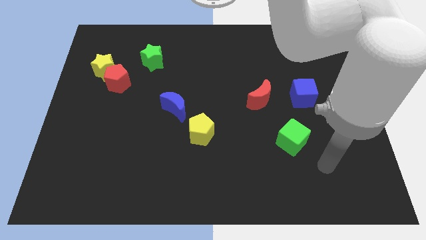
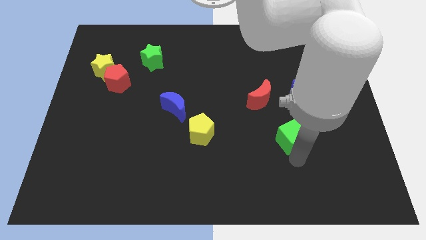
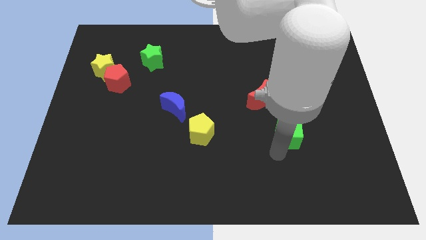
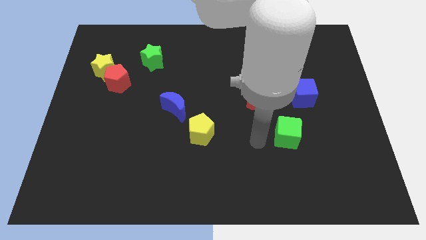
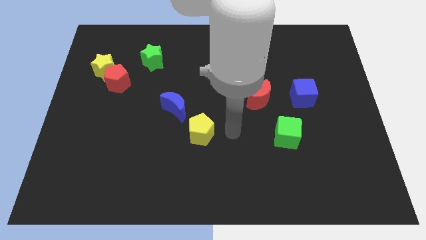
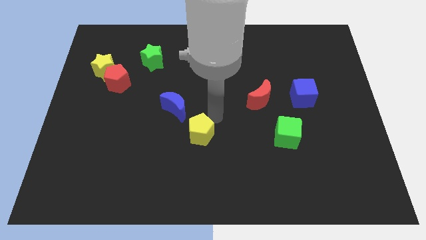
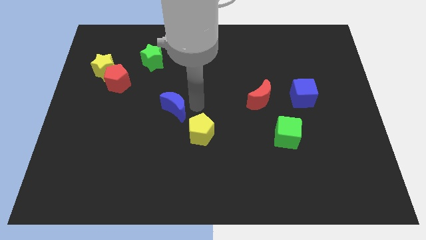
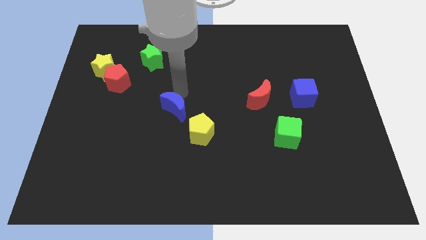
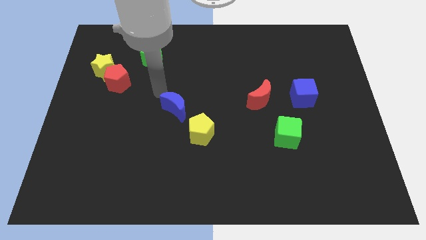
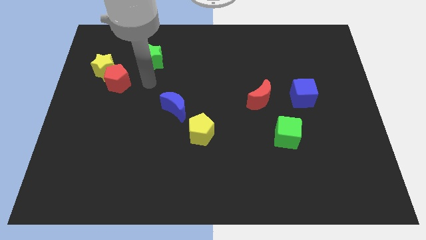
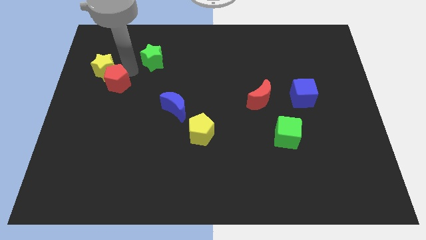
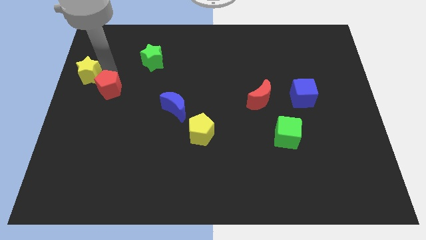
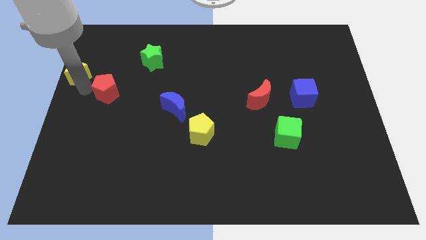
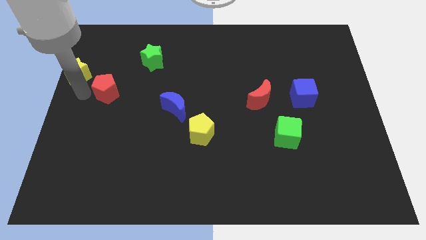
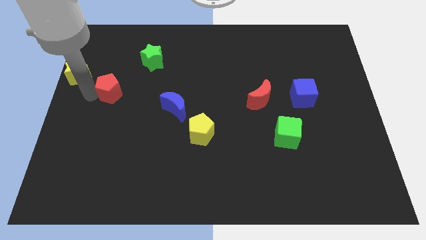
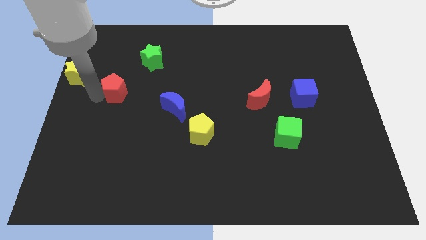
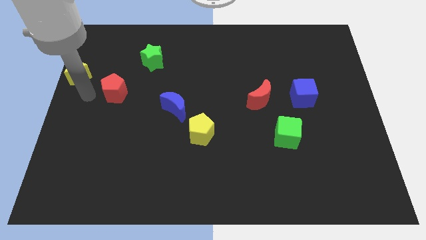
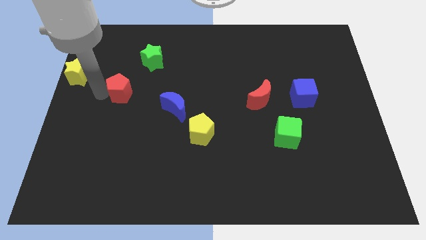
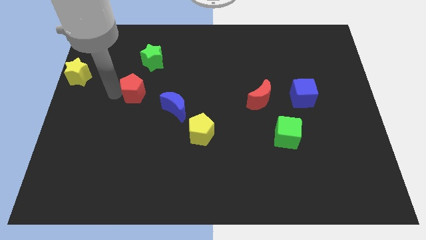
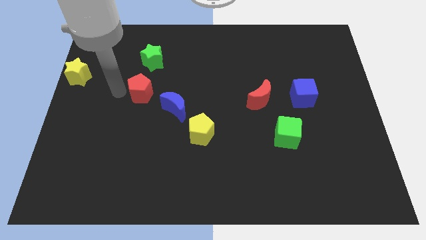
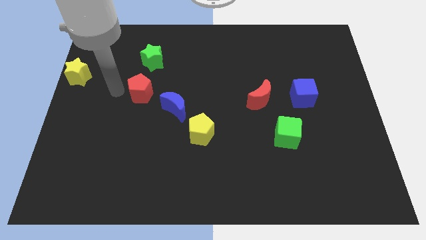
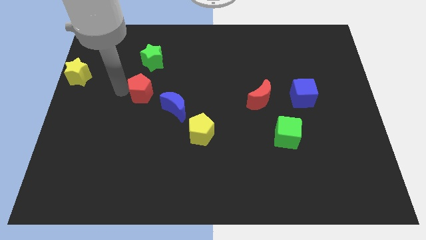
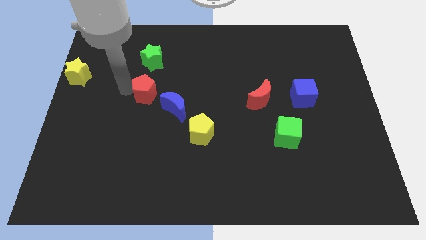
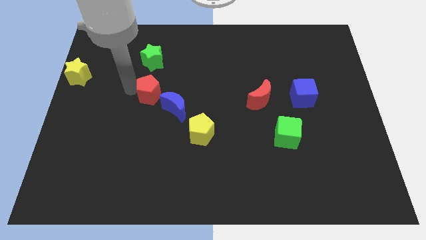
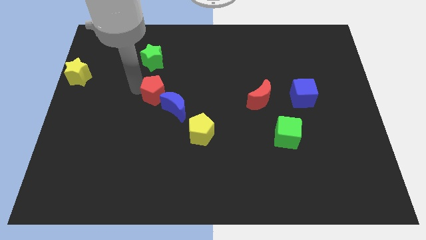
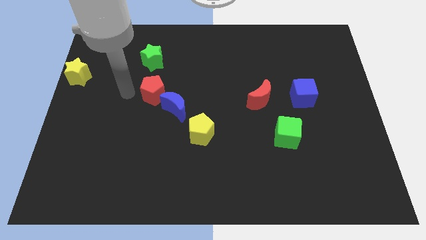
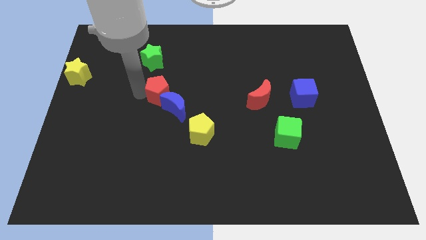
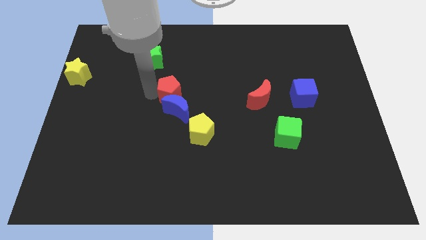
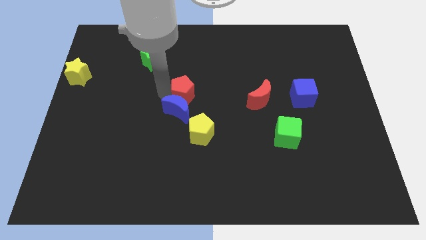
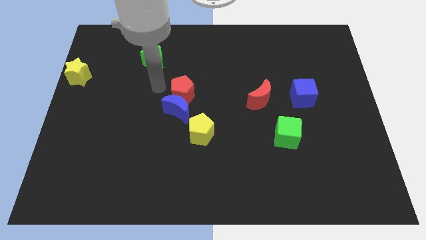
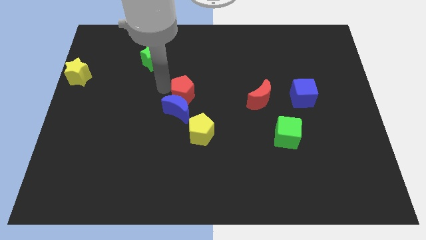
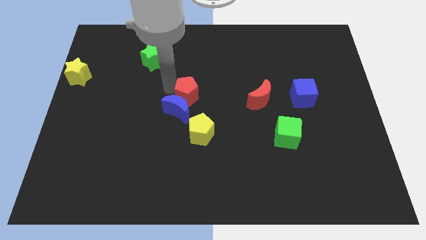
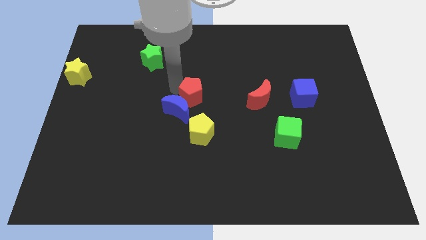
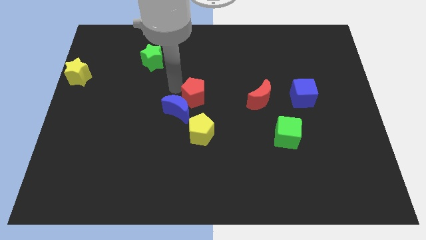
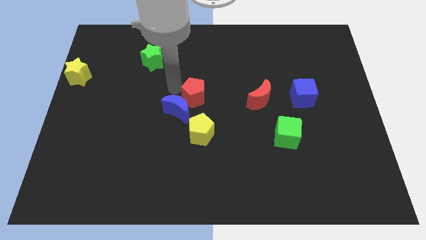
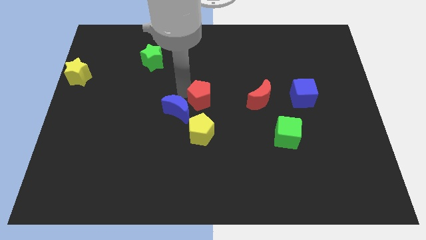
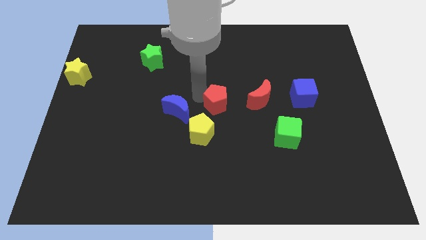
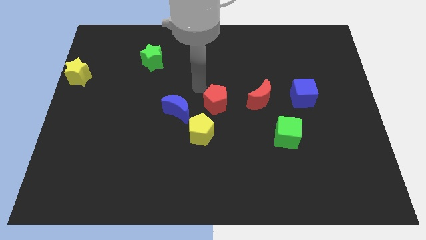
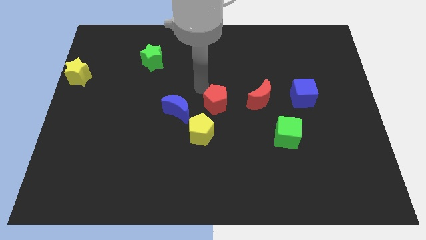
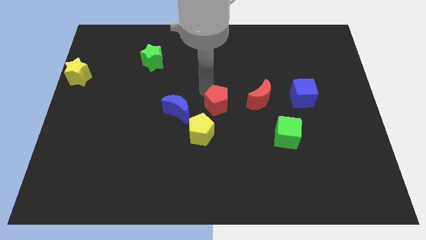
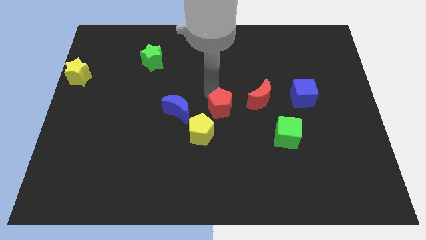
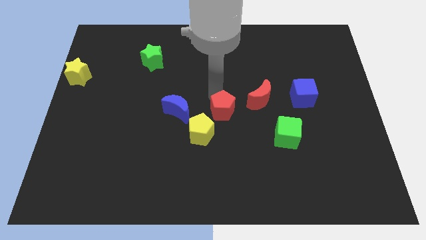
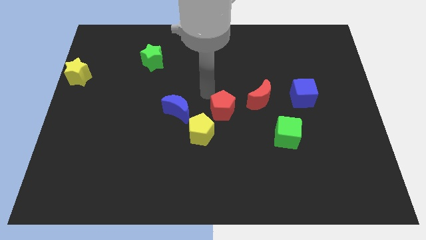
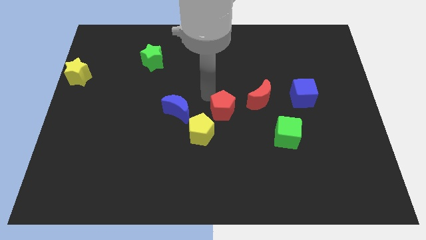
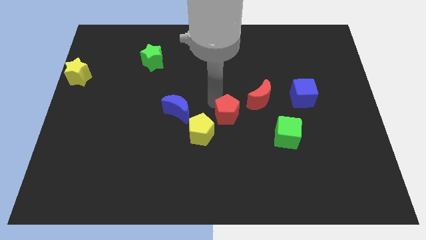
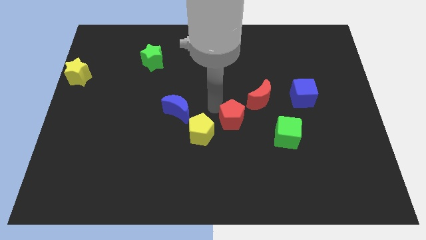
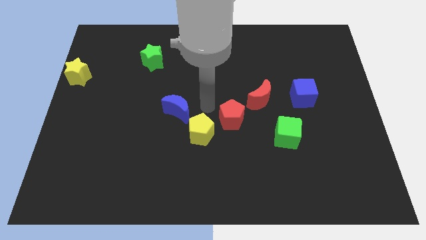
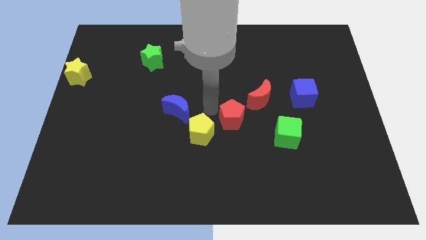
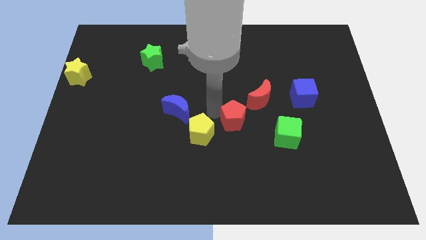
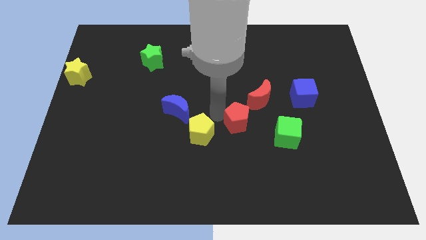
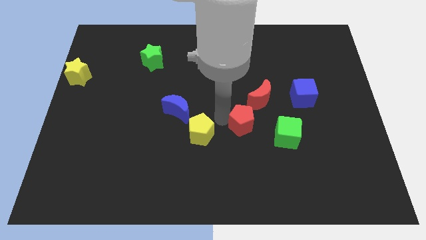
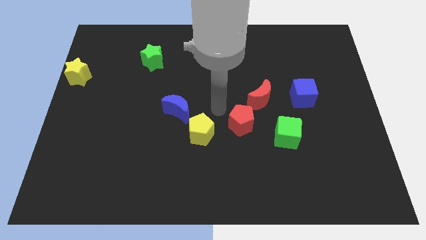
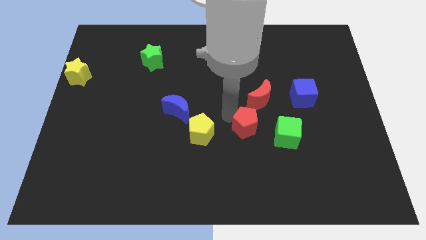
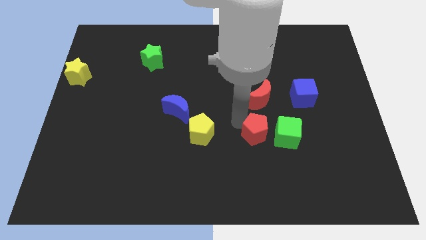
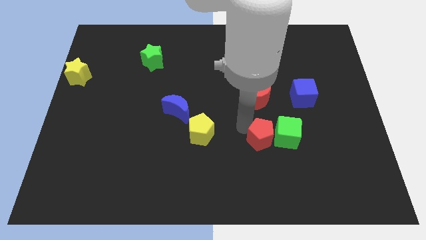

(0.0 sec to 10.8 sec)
move the red pentagon to the green cube

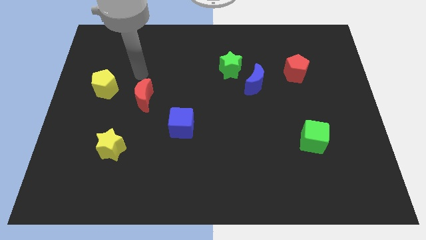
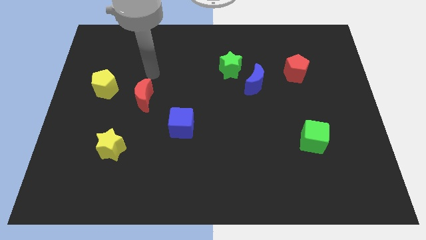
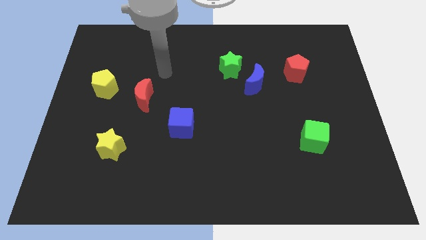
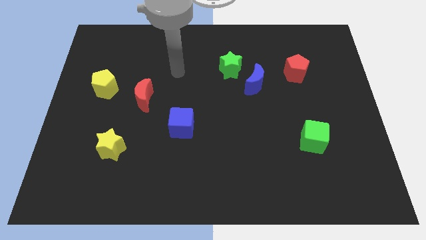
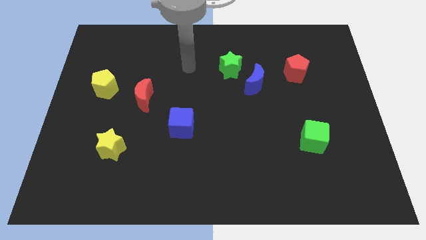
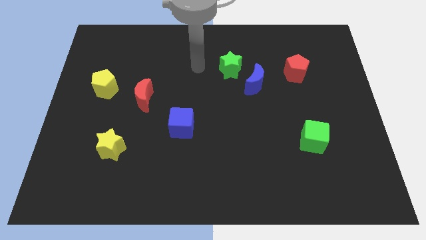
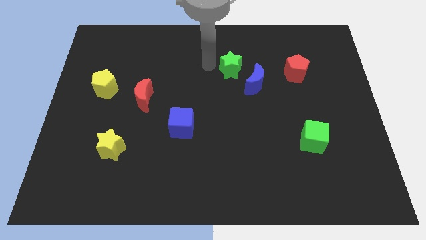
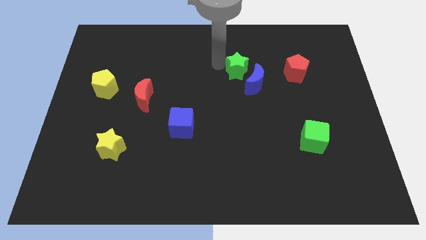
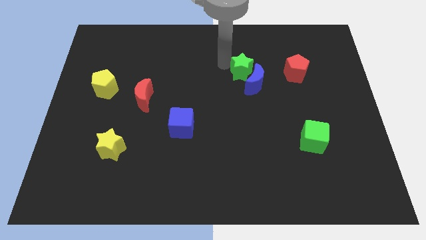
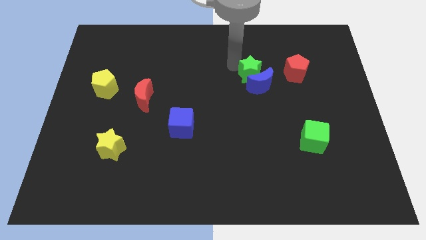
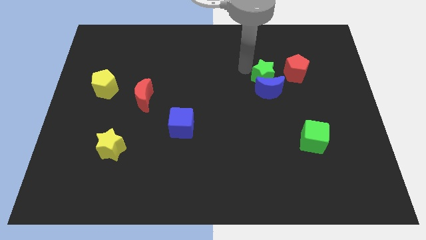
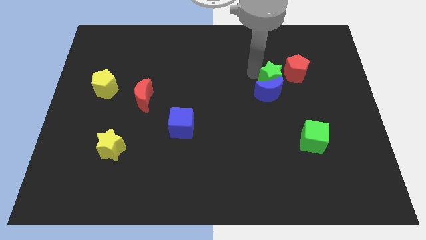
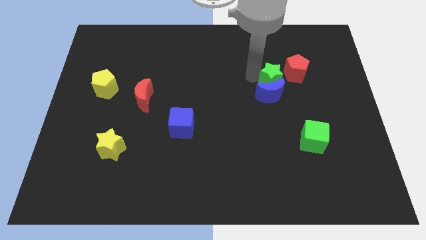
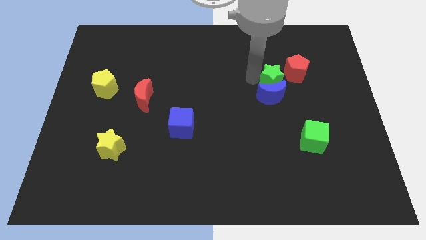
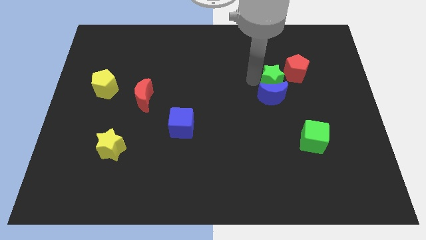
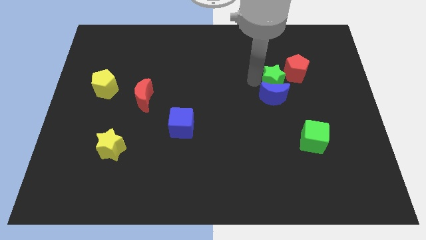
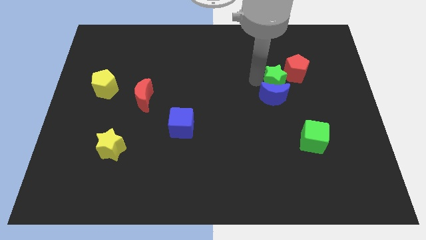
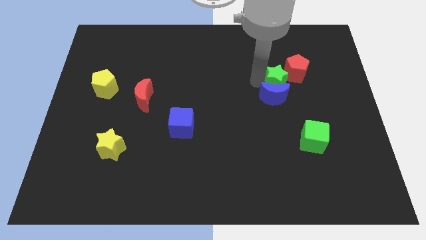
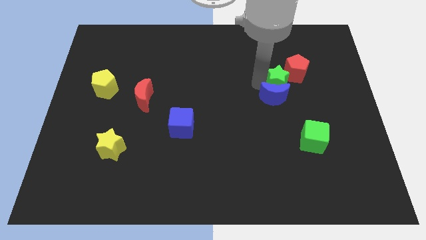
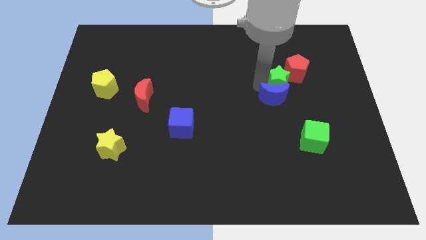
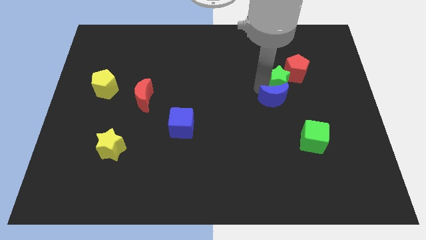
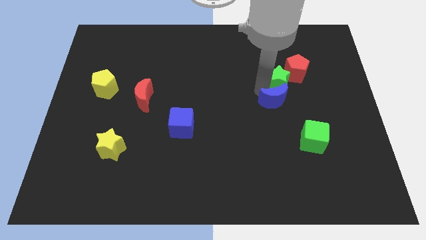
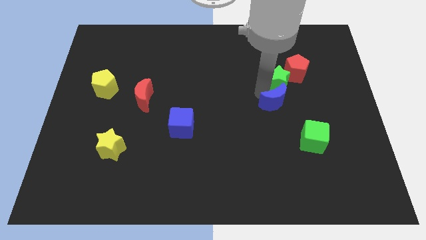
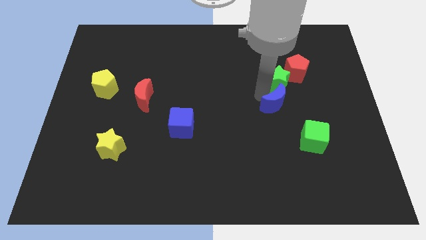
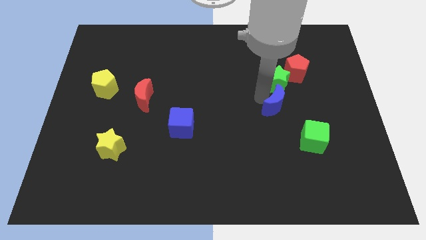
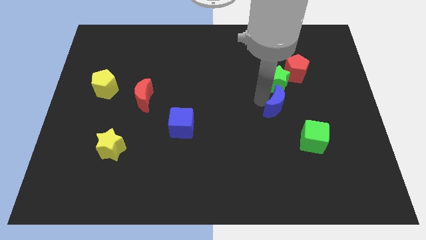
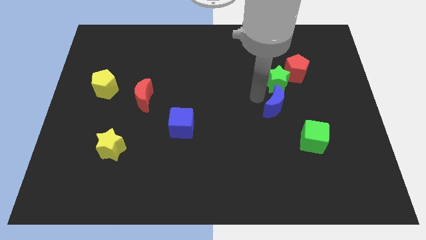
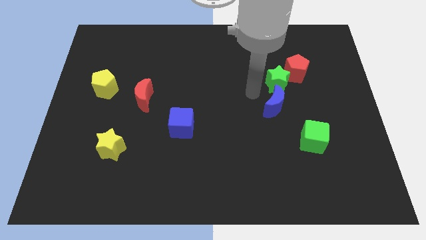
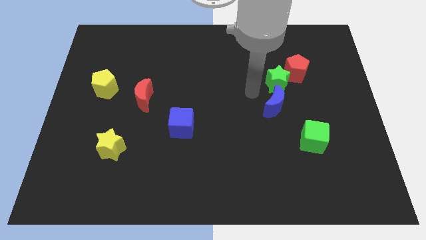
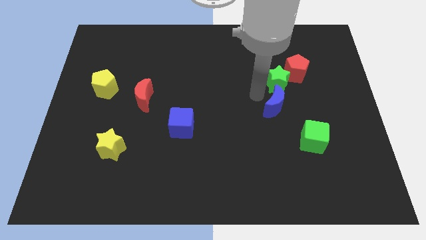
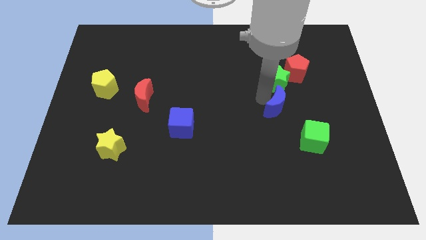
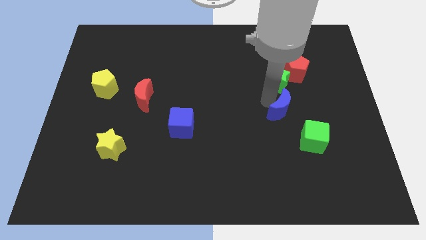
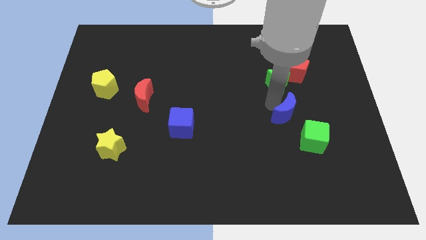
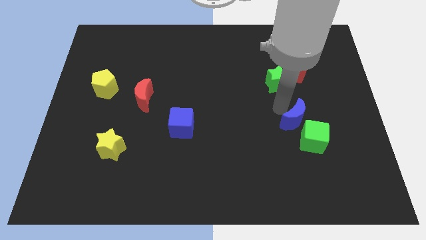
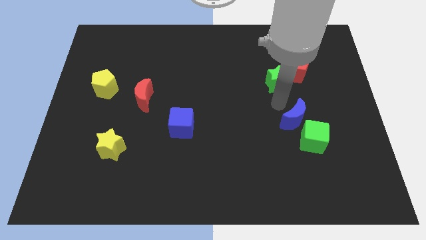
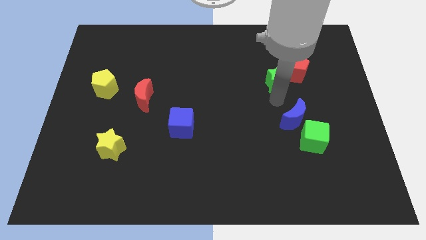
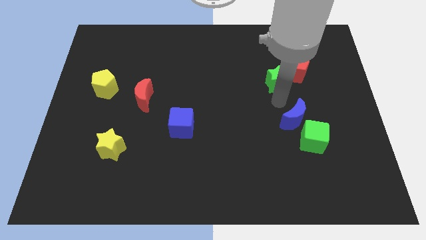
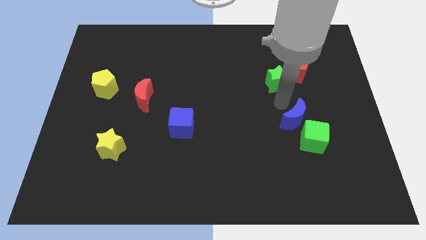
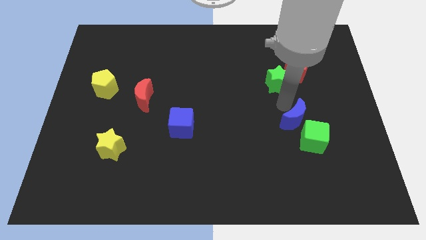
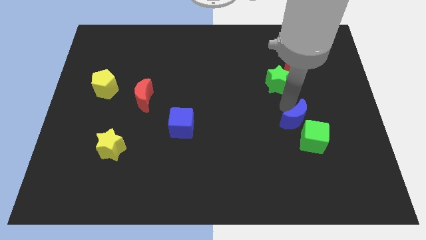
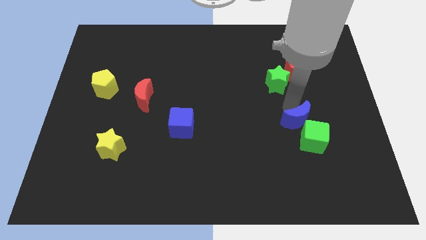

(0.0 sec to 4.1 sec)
move the blue moon close to the green cube
